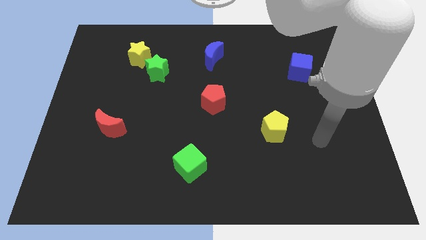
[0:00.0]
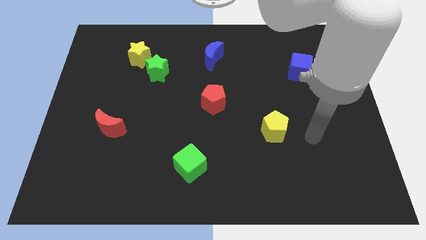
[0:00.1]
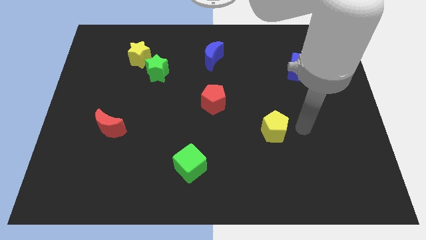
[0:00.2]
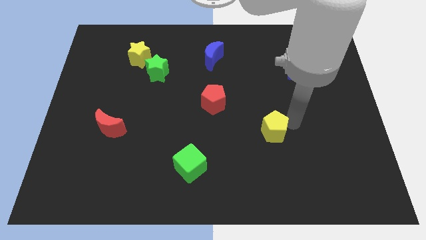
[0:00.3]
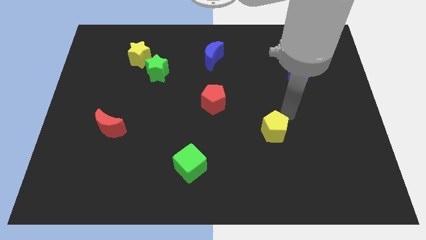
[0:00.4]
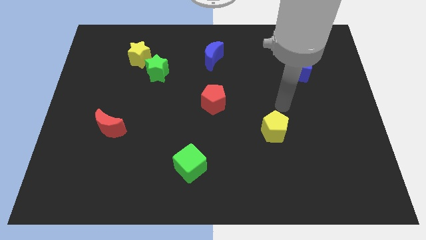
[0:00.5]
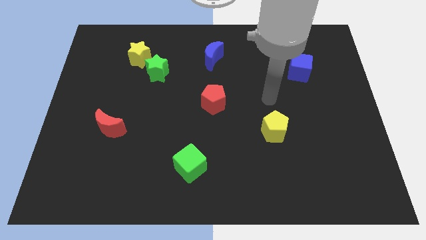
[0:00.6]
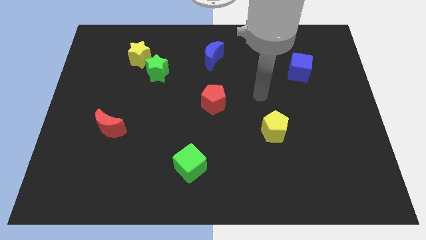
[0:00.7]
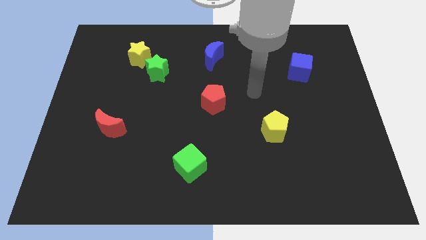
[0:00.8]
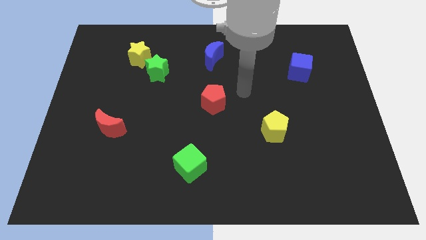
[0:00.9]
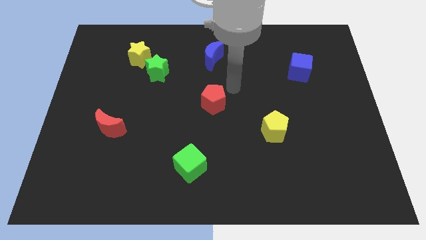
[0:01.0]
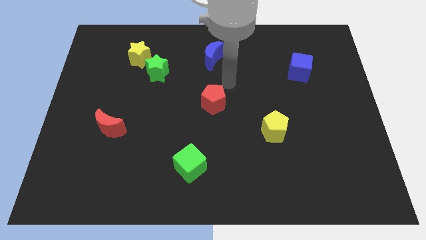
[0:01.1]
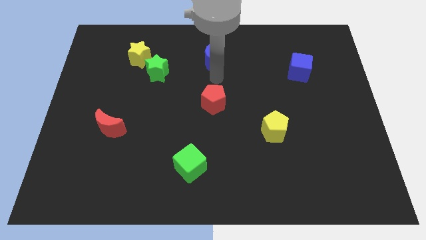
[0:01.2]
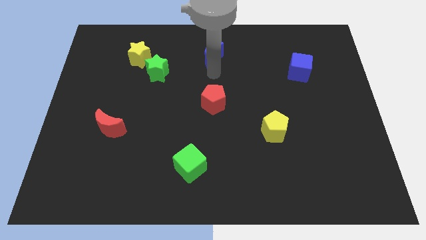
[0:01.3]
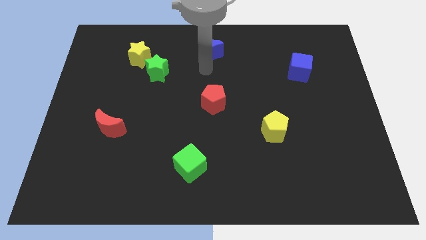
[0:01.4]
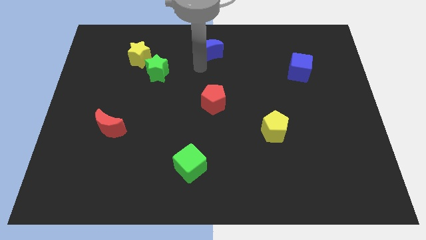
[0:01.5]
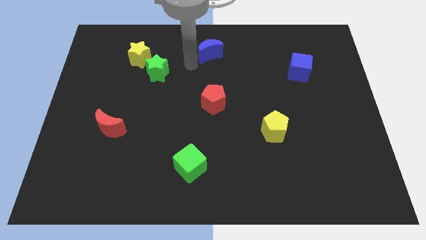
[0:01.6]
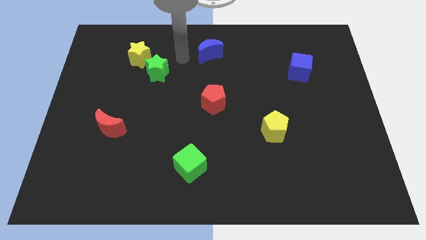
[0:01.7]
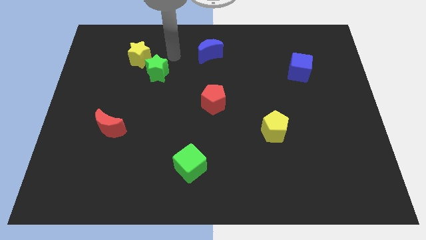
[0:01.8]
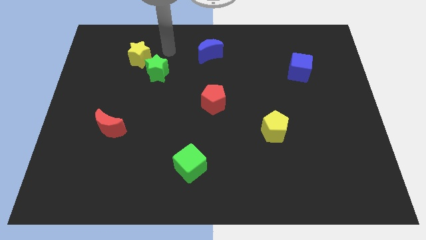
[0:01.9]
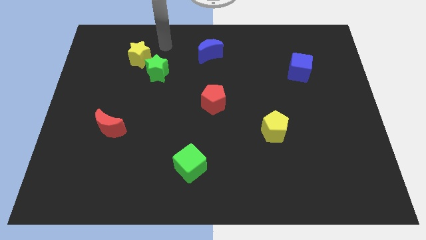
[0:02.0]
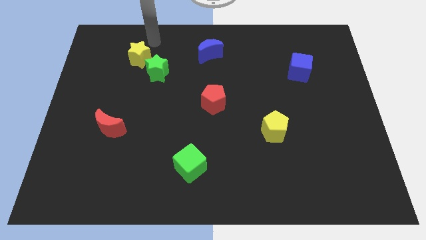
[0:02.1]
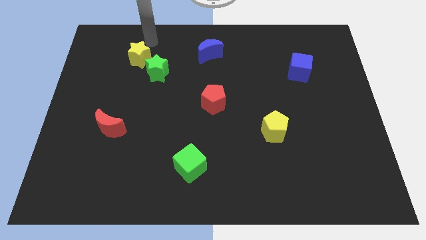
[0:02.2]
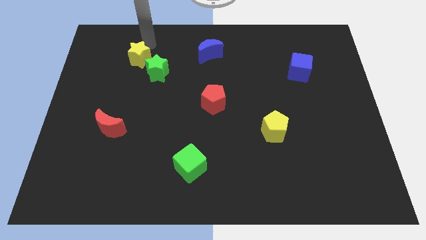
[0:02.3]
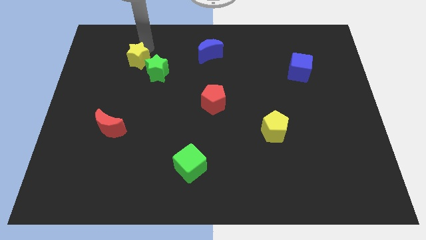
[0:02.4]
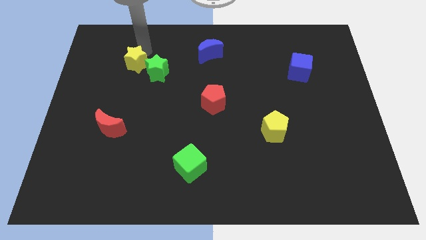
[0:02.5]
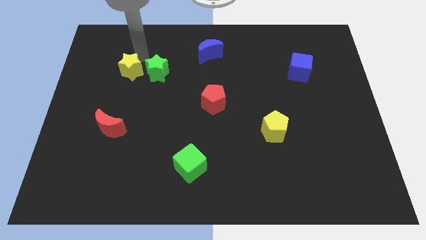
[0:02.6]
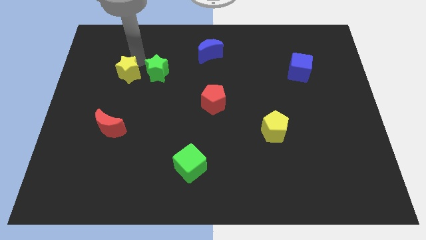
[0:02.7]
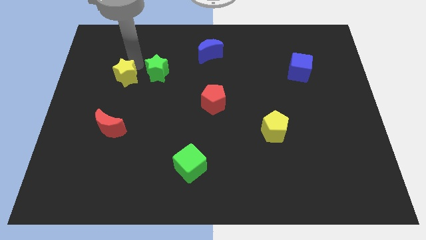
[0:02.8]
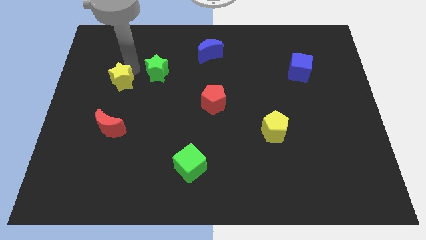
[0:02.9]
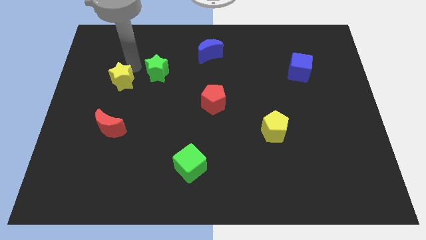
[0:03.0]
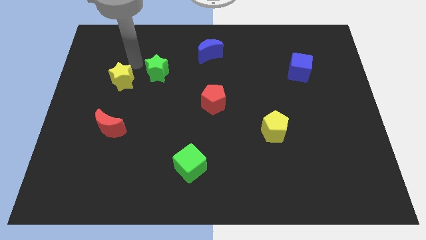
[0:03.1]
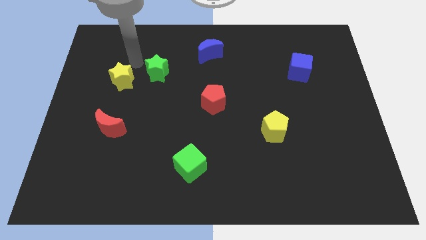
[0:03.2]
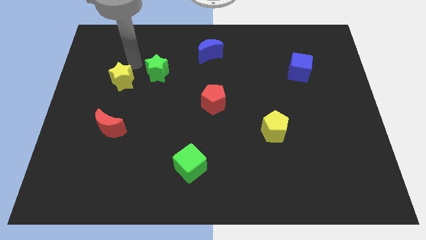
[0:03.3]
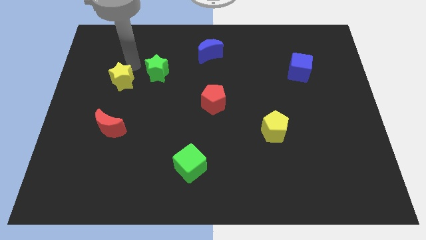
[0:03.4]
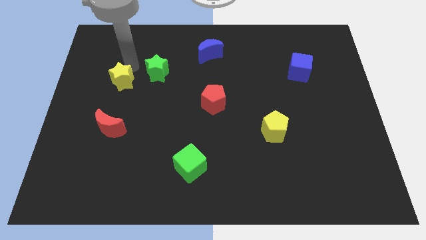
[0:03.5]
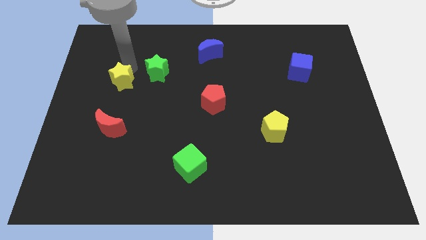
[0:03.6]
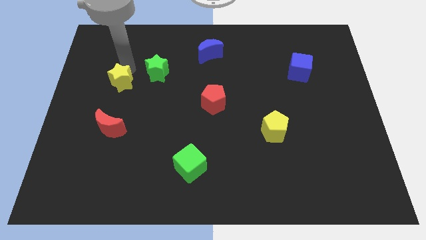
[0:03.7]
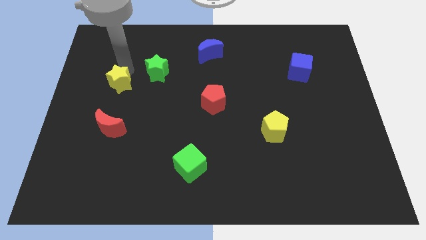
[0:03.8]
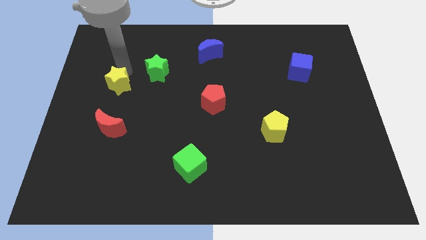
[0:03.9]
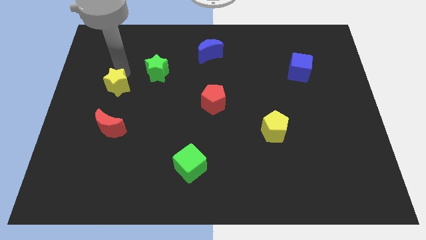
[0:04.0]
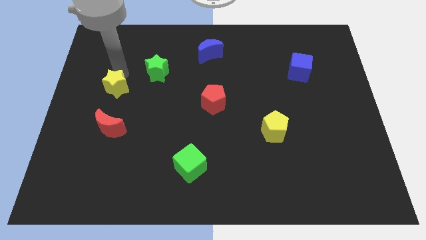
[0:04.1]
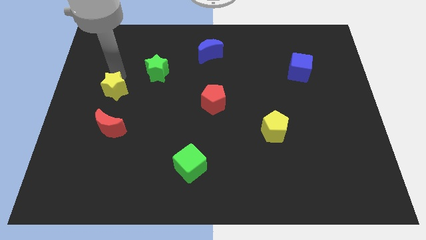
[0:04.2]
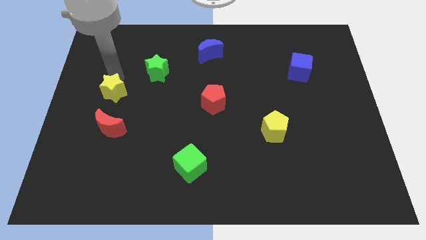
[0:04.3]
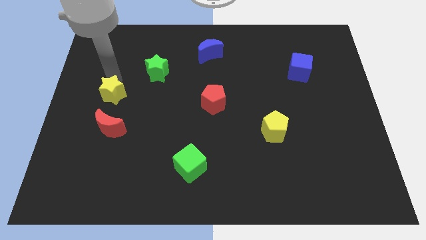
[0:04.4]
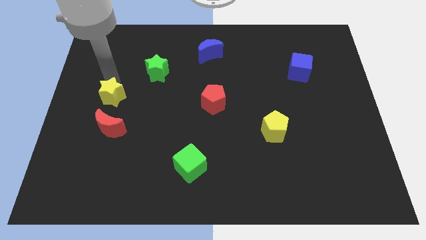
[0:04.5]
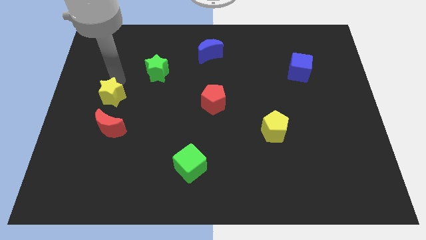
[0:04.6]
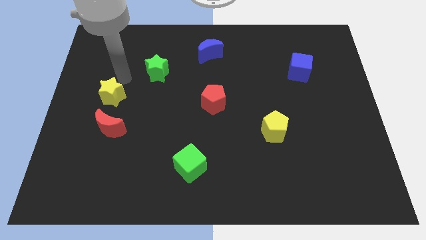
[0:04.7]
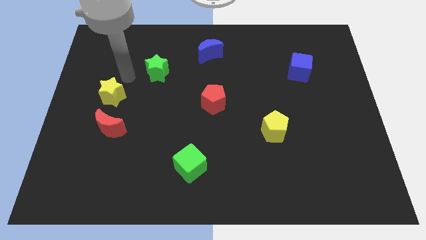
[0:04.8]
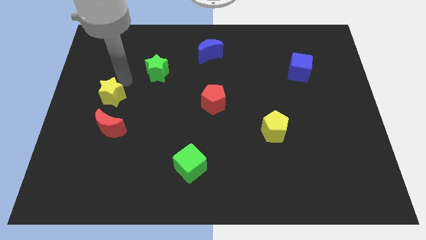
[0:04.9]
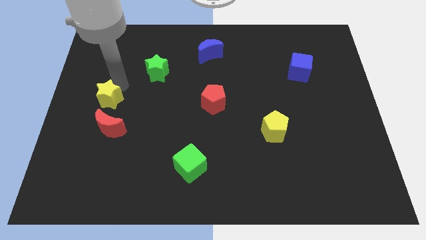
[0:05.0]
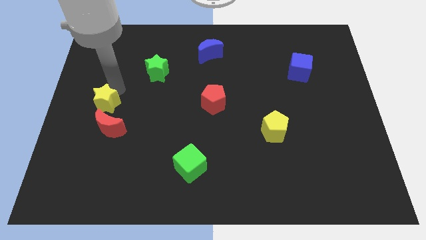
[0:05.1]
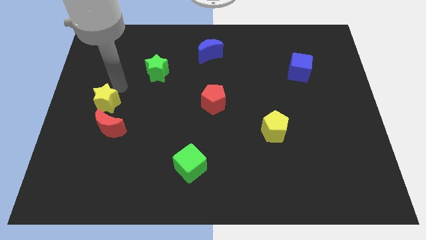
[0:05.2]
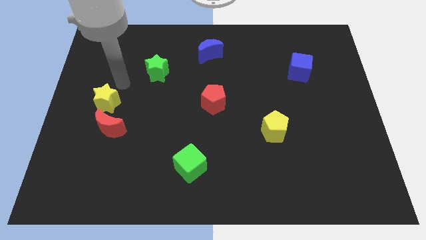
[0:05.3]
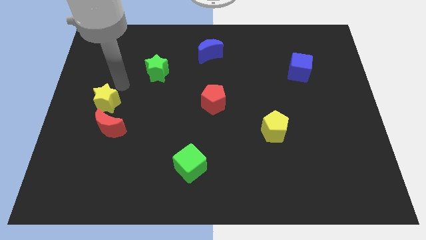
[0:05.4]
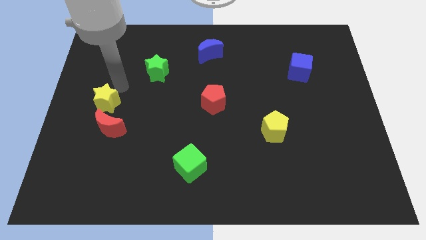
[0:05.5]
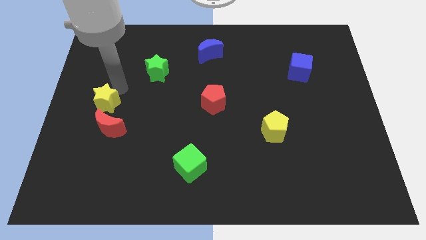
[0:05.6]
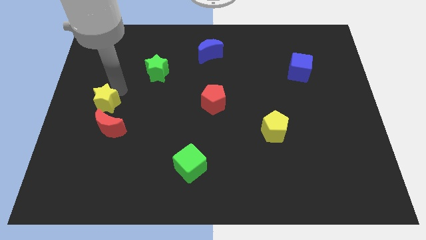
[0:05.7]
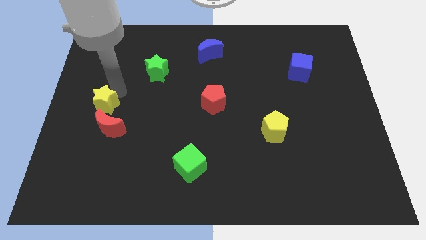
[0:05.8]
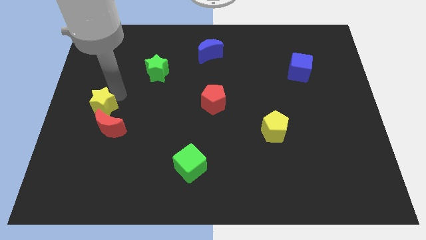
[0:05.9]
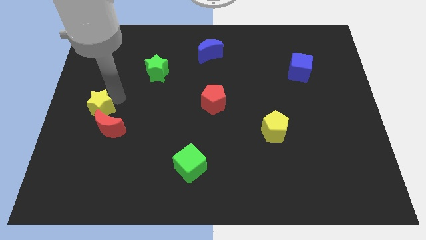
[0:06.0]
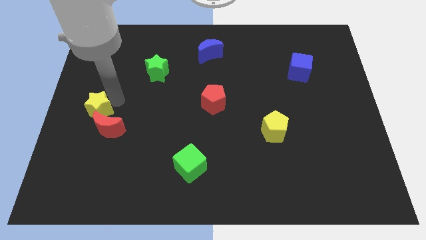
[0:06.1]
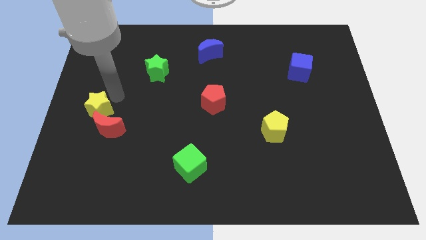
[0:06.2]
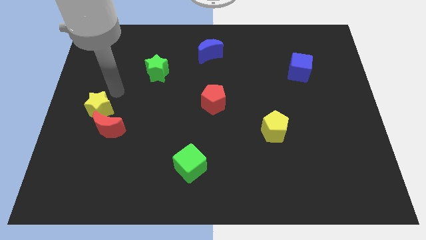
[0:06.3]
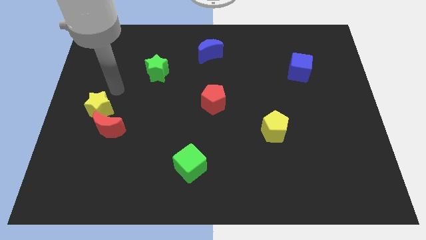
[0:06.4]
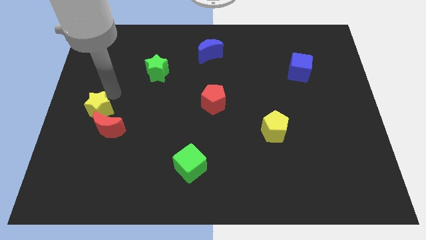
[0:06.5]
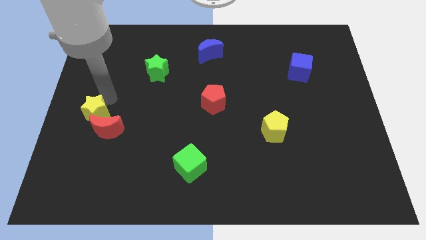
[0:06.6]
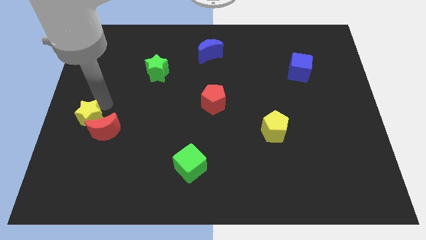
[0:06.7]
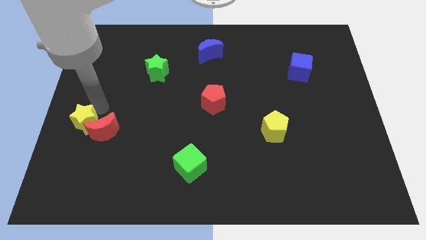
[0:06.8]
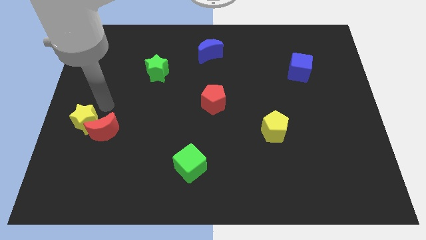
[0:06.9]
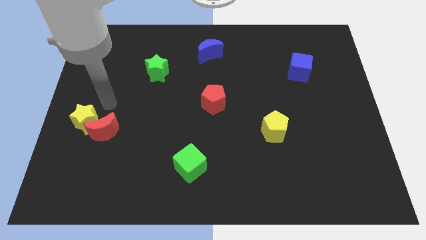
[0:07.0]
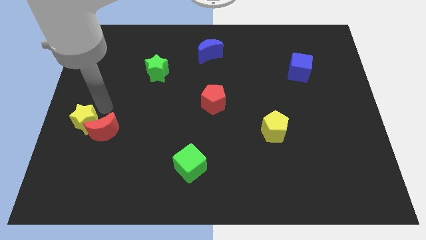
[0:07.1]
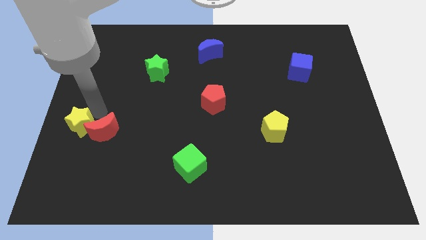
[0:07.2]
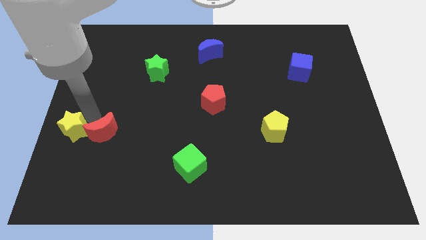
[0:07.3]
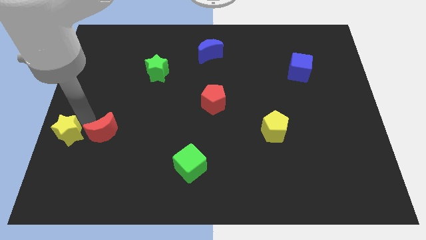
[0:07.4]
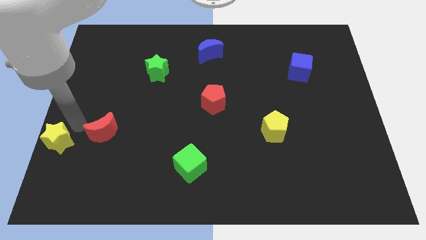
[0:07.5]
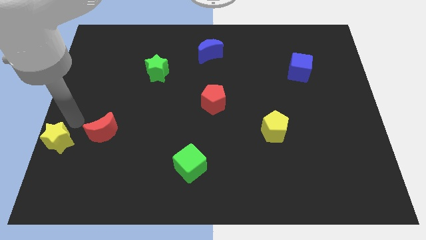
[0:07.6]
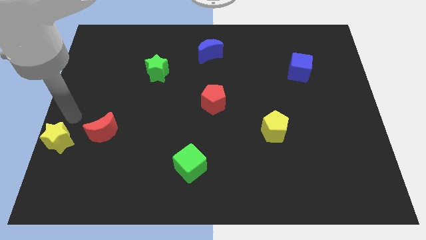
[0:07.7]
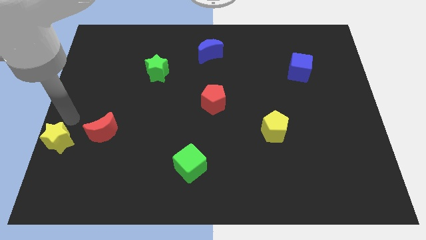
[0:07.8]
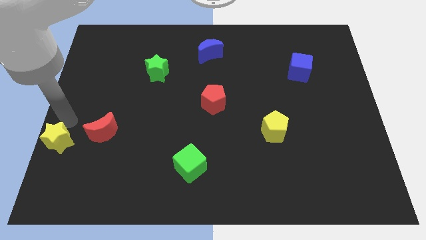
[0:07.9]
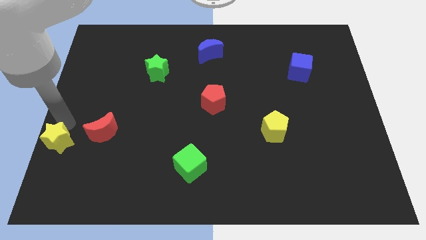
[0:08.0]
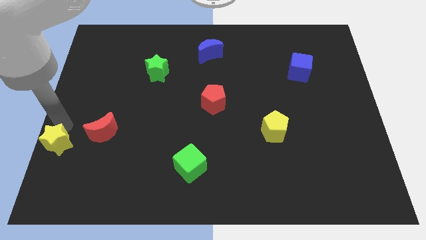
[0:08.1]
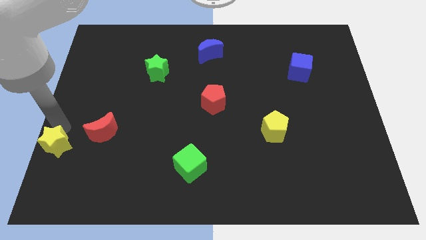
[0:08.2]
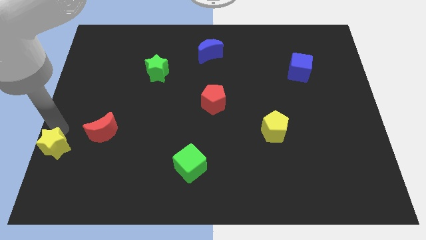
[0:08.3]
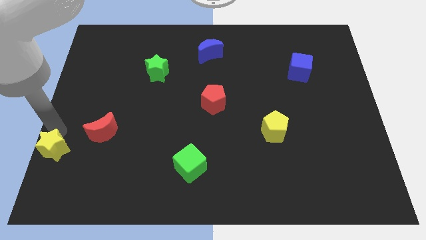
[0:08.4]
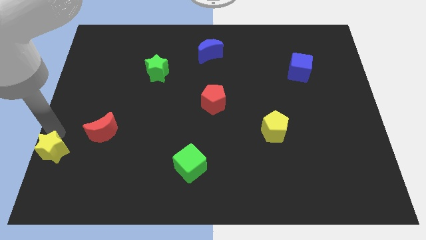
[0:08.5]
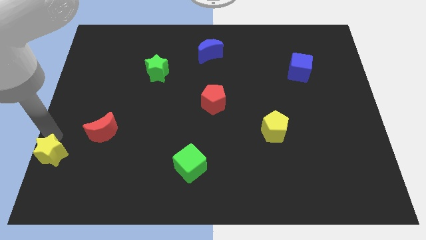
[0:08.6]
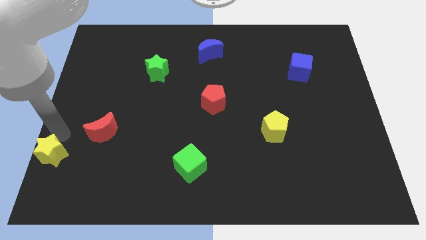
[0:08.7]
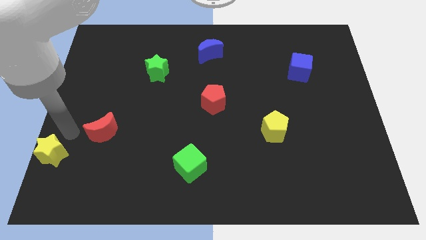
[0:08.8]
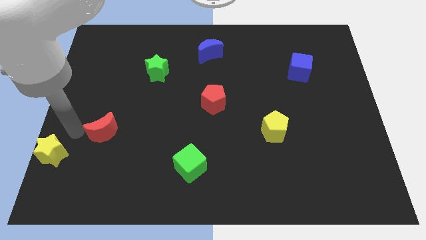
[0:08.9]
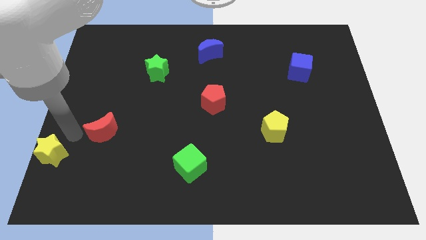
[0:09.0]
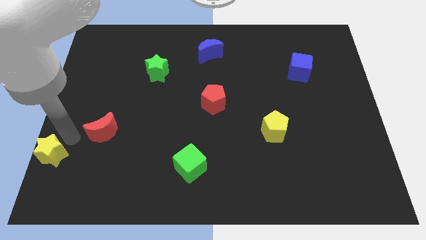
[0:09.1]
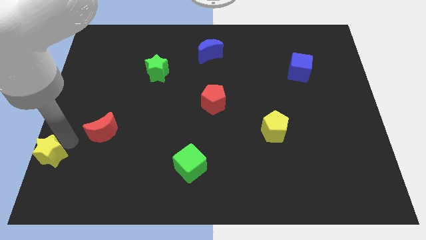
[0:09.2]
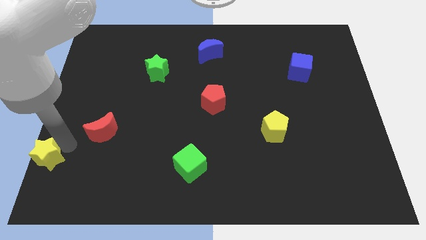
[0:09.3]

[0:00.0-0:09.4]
move the yellow star to the bottom left
